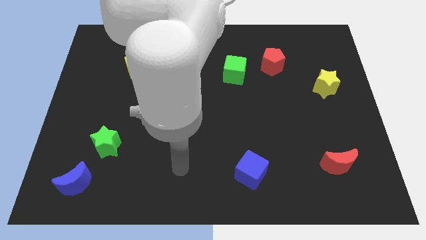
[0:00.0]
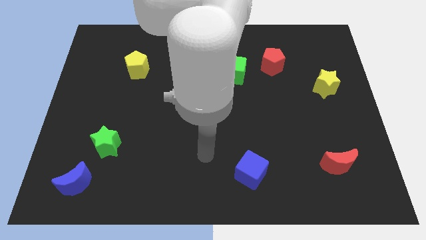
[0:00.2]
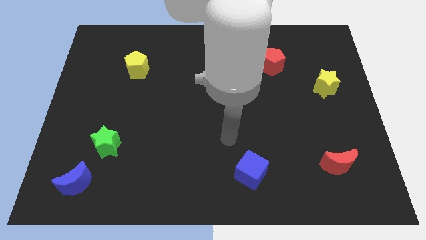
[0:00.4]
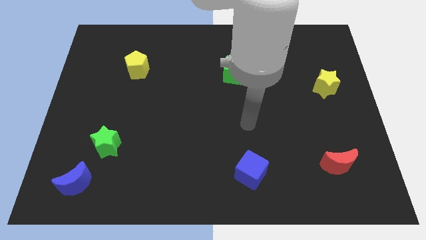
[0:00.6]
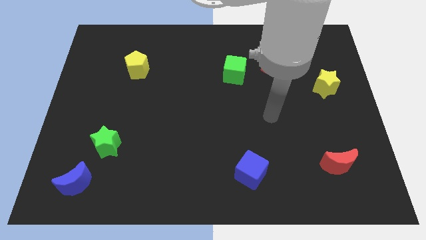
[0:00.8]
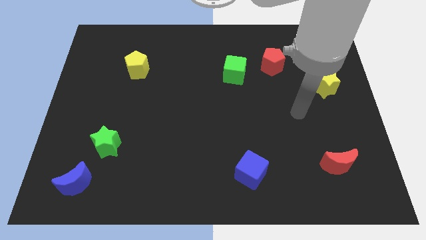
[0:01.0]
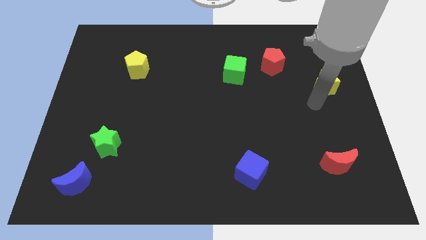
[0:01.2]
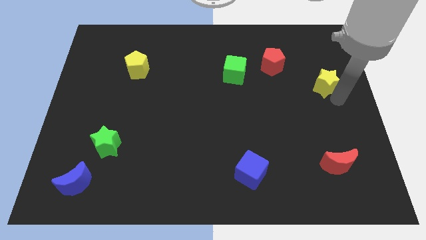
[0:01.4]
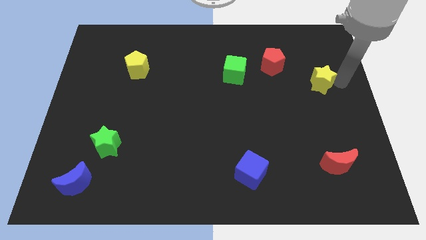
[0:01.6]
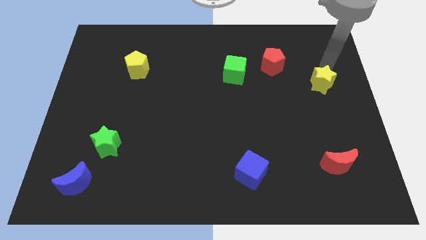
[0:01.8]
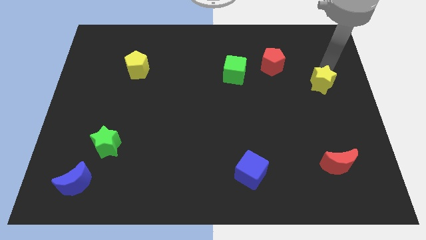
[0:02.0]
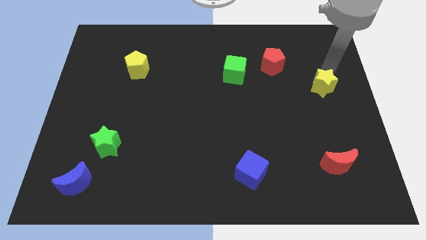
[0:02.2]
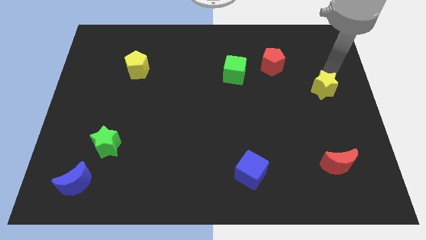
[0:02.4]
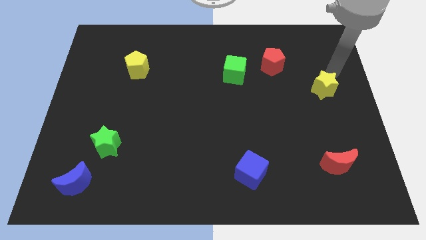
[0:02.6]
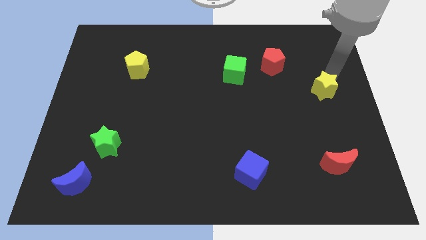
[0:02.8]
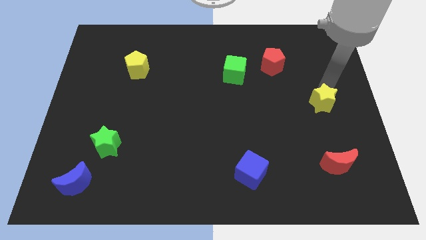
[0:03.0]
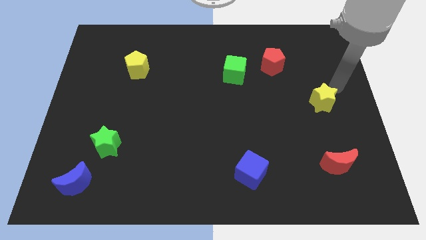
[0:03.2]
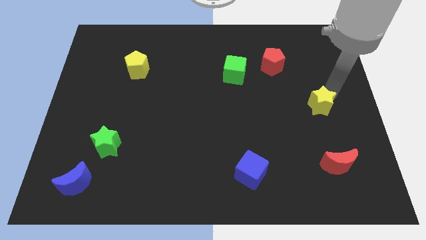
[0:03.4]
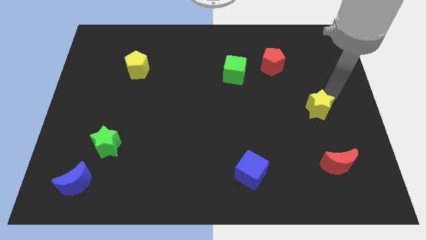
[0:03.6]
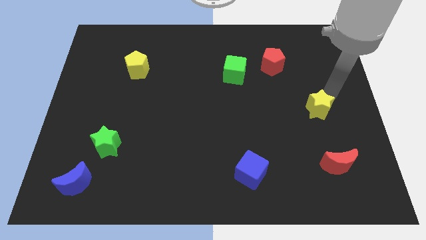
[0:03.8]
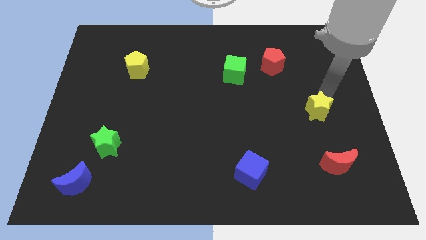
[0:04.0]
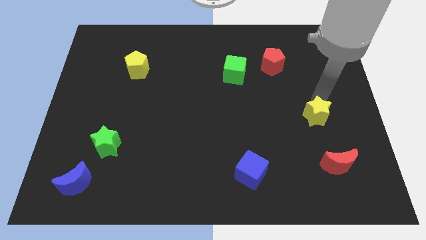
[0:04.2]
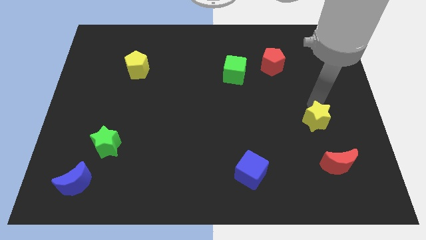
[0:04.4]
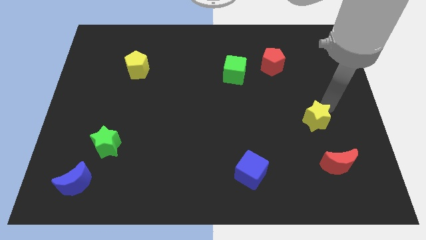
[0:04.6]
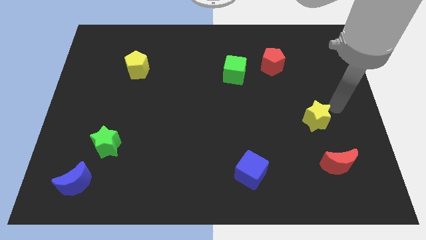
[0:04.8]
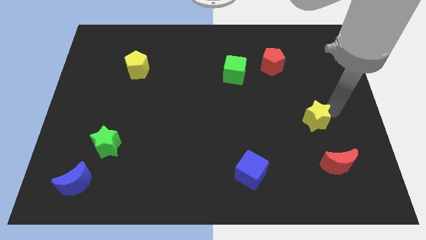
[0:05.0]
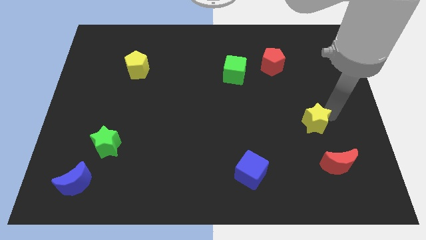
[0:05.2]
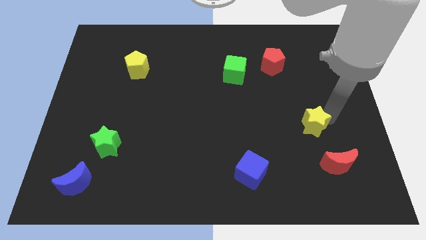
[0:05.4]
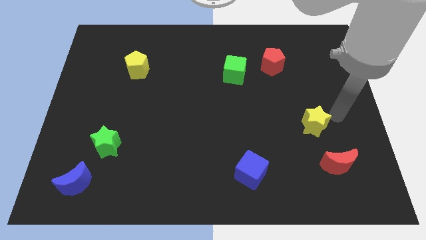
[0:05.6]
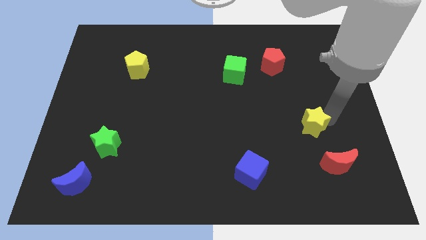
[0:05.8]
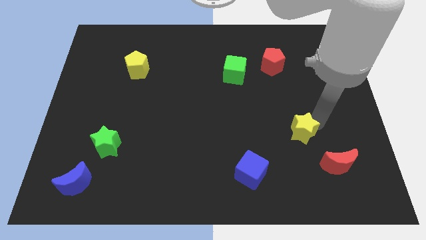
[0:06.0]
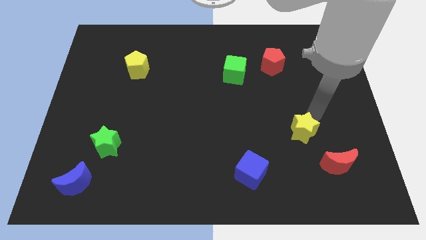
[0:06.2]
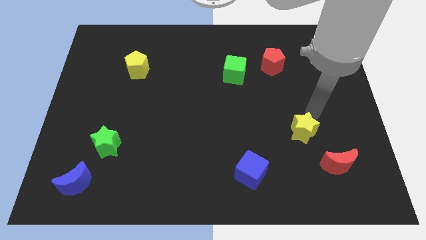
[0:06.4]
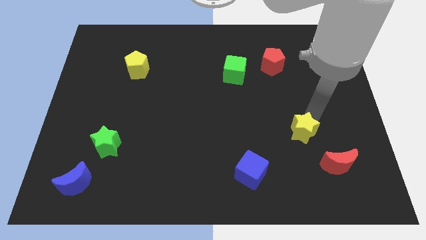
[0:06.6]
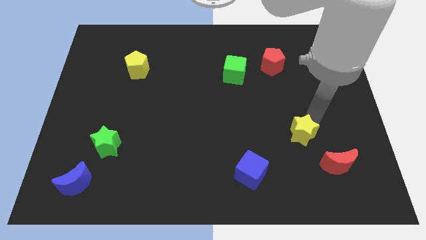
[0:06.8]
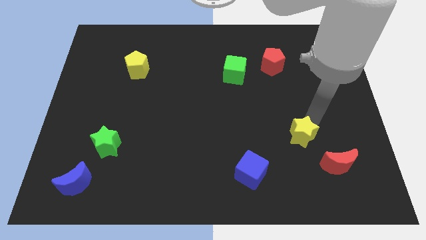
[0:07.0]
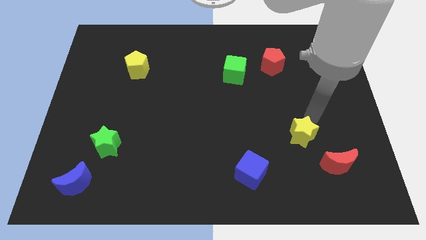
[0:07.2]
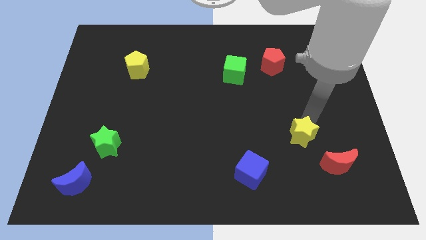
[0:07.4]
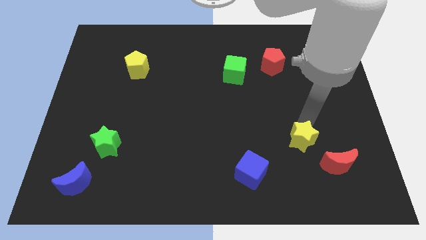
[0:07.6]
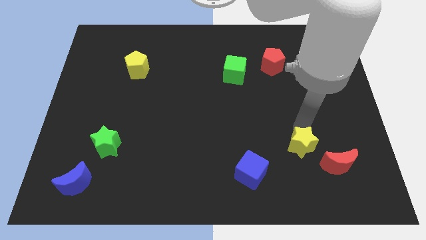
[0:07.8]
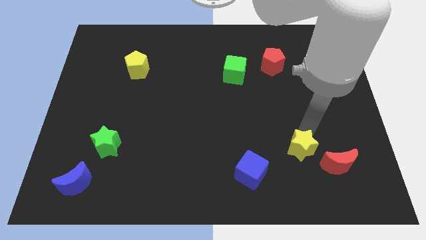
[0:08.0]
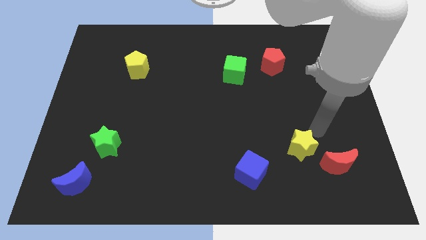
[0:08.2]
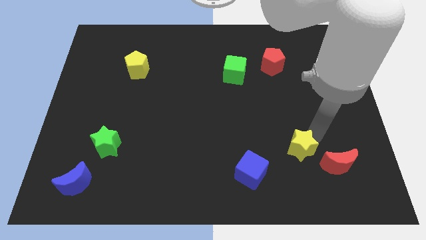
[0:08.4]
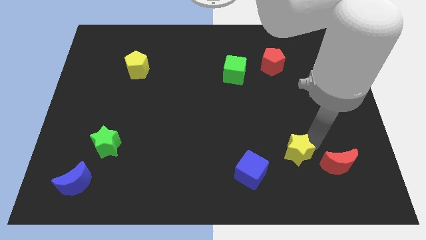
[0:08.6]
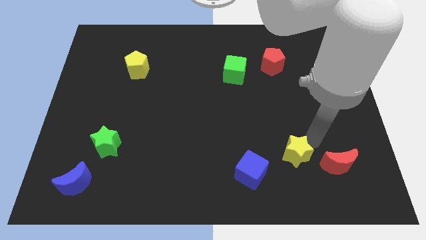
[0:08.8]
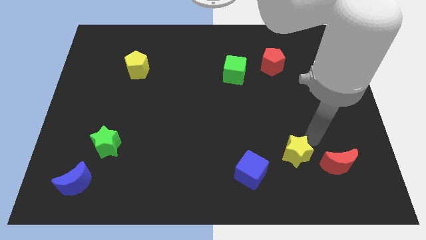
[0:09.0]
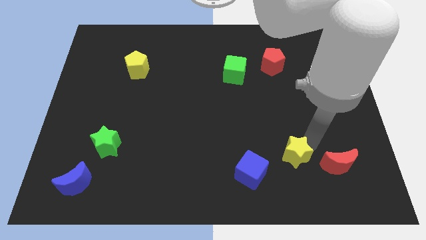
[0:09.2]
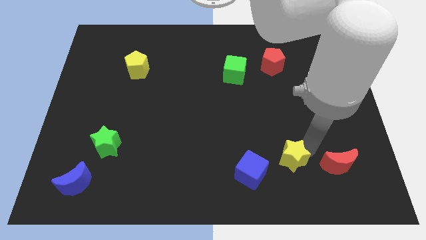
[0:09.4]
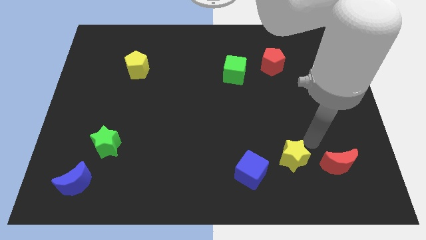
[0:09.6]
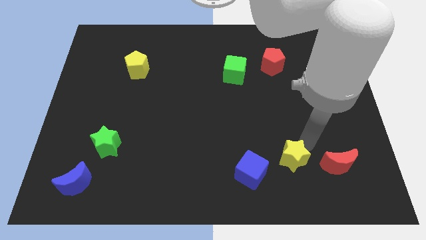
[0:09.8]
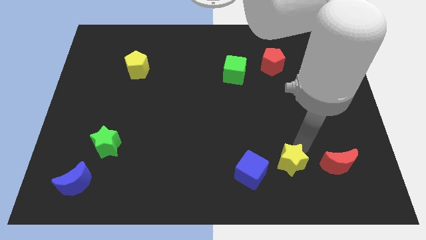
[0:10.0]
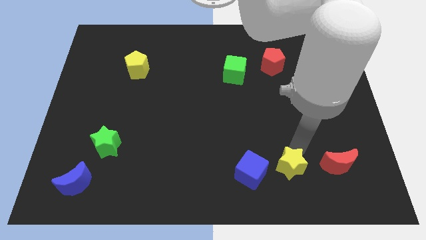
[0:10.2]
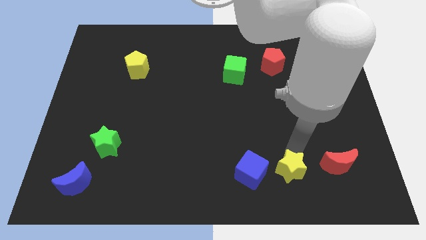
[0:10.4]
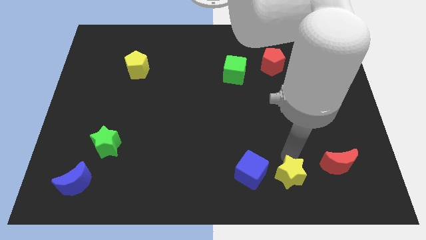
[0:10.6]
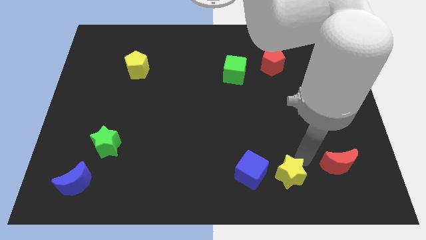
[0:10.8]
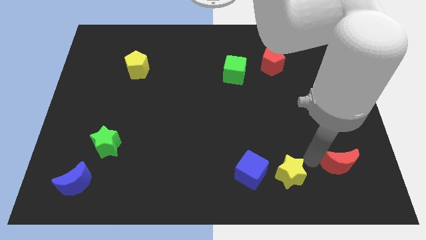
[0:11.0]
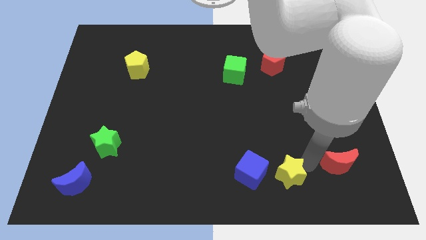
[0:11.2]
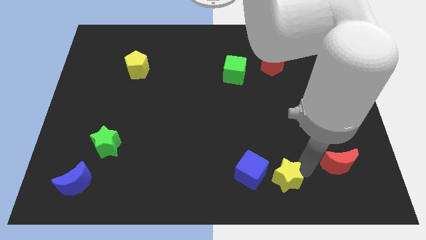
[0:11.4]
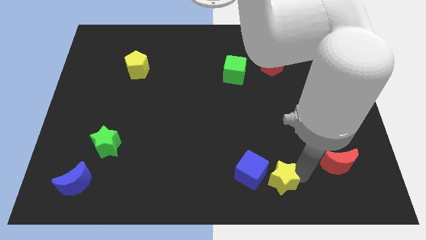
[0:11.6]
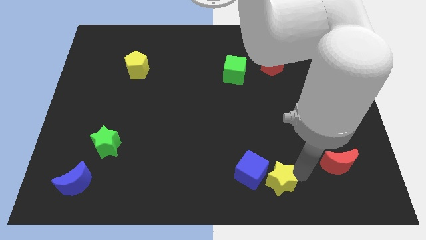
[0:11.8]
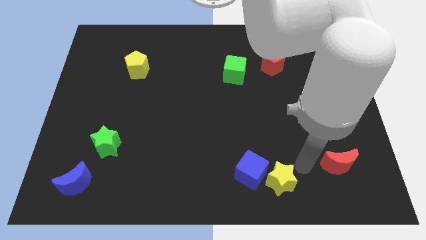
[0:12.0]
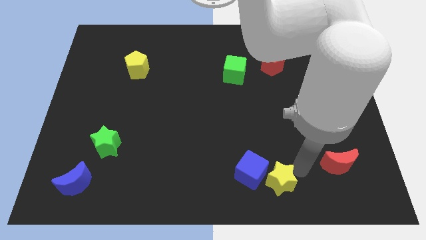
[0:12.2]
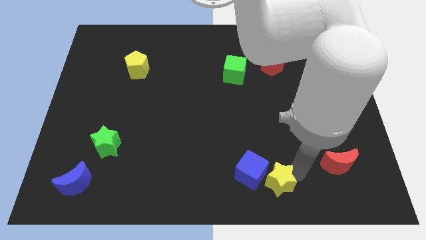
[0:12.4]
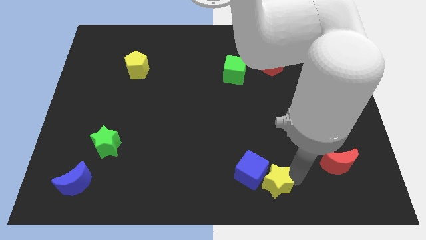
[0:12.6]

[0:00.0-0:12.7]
put the yellow star to the bottom side

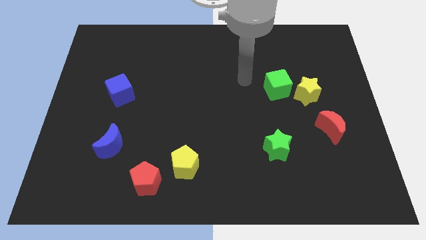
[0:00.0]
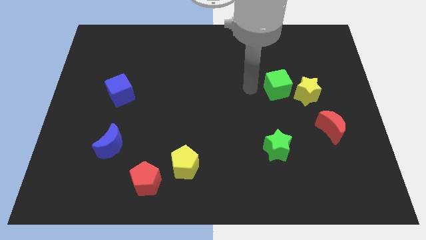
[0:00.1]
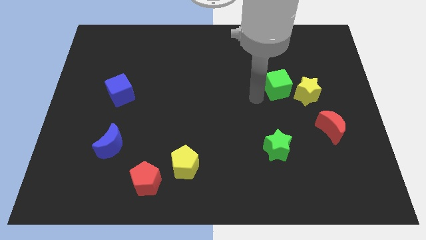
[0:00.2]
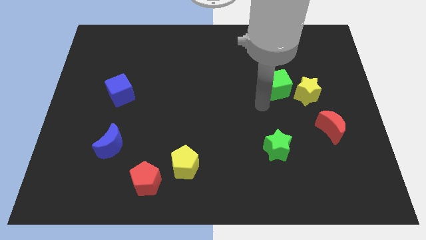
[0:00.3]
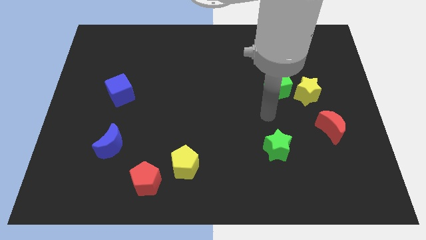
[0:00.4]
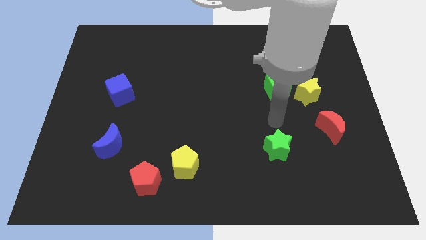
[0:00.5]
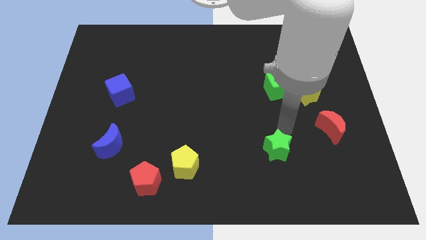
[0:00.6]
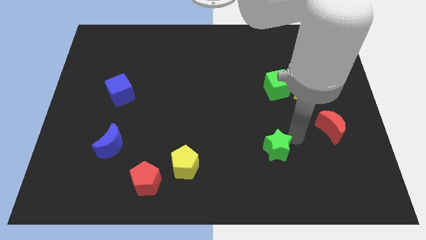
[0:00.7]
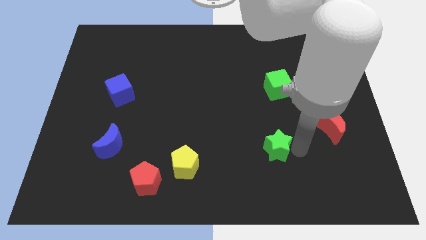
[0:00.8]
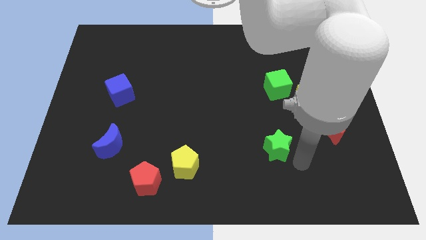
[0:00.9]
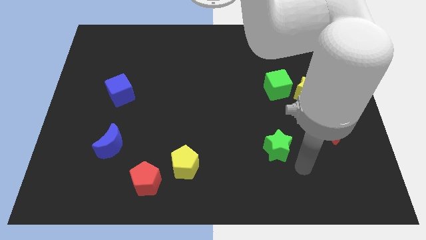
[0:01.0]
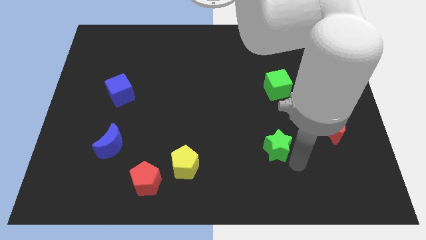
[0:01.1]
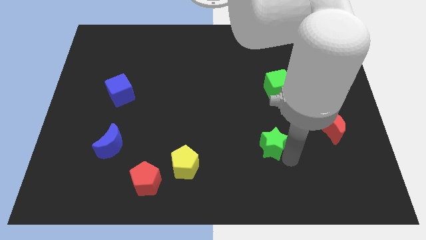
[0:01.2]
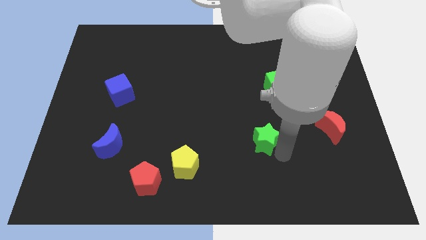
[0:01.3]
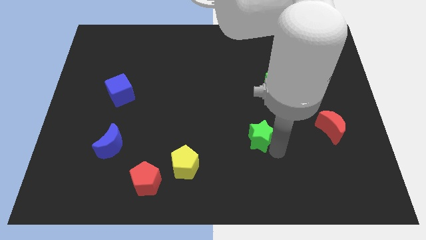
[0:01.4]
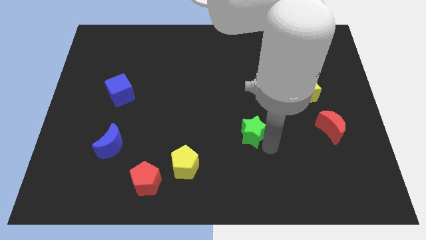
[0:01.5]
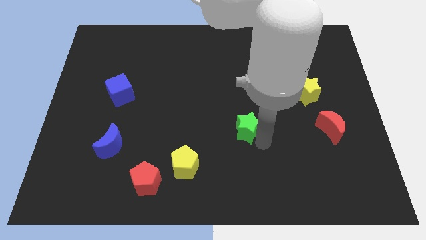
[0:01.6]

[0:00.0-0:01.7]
push the green star to the center
